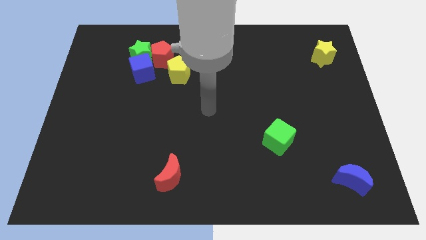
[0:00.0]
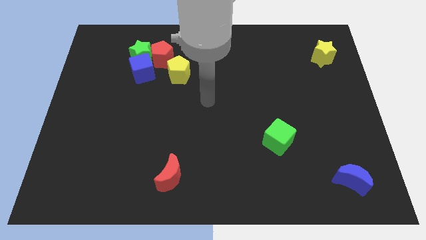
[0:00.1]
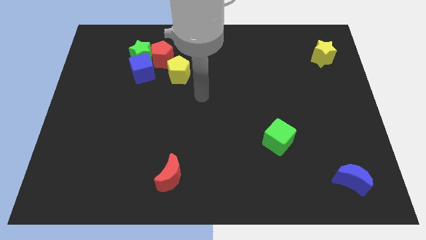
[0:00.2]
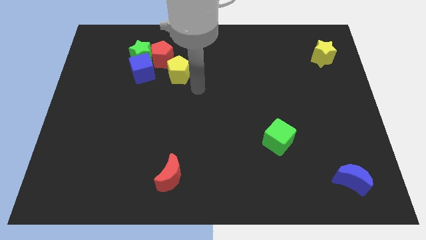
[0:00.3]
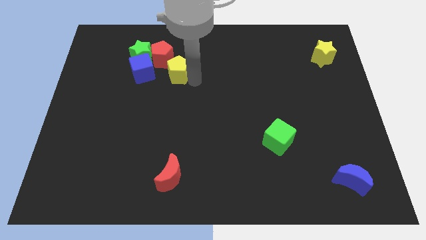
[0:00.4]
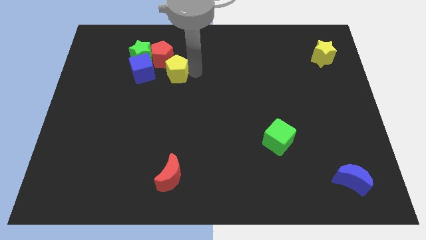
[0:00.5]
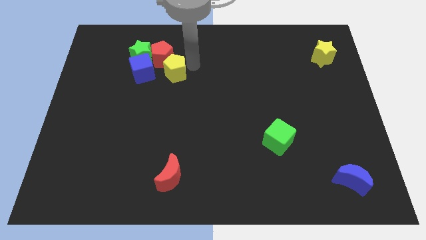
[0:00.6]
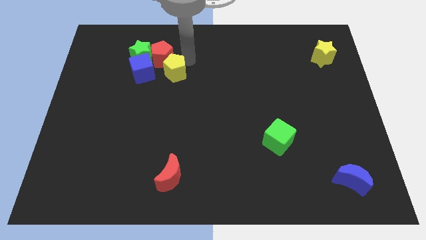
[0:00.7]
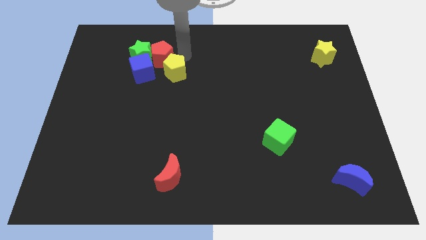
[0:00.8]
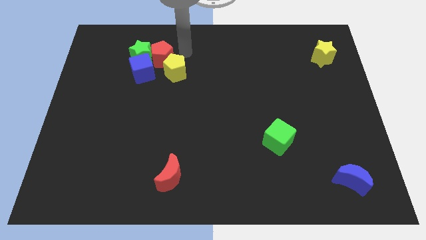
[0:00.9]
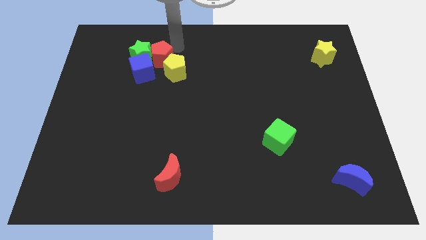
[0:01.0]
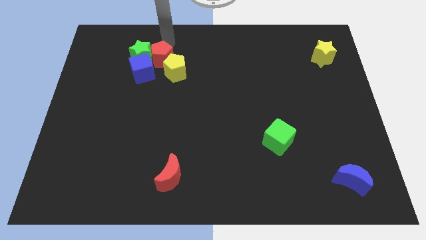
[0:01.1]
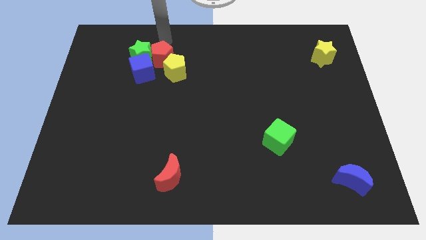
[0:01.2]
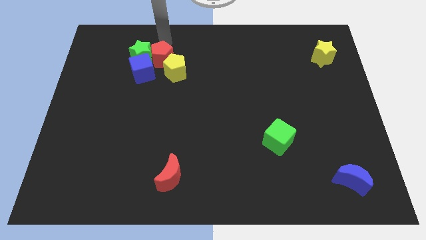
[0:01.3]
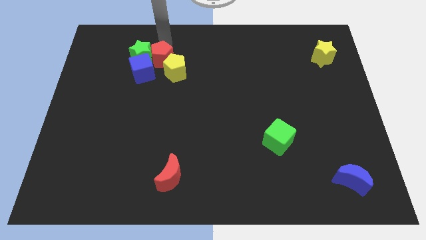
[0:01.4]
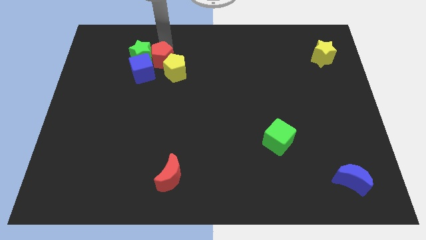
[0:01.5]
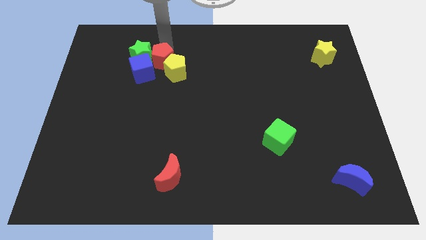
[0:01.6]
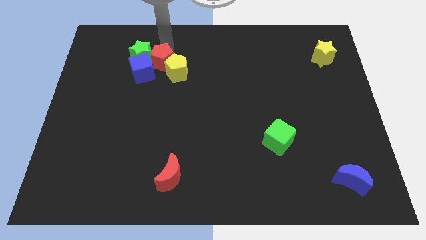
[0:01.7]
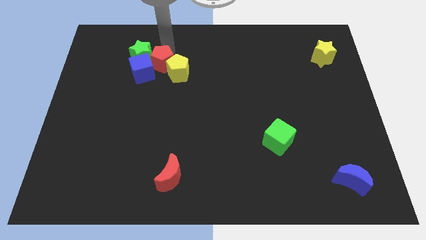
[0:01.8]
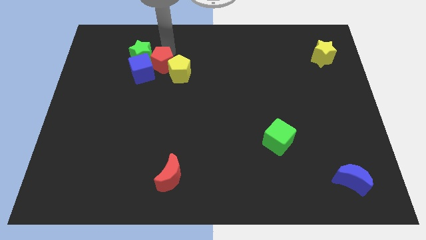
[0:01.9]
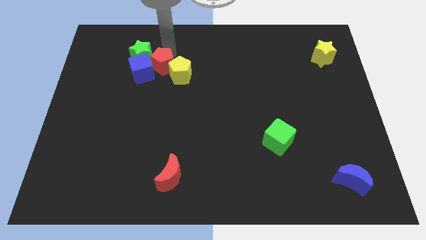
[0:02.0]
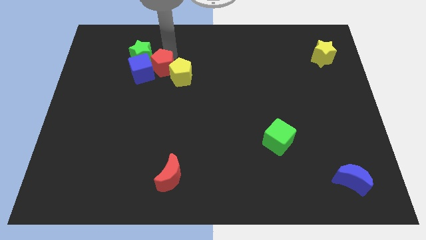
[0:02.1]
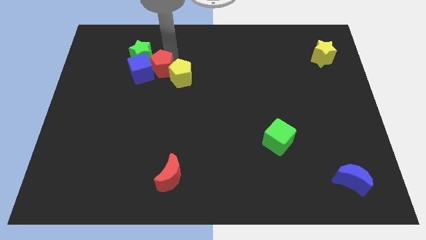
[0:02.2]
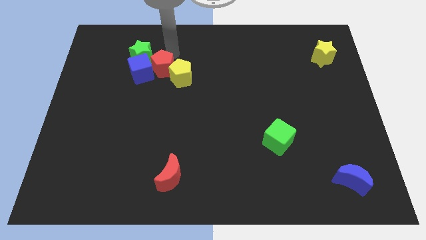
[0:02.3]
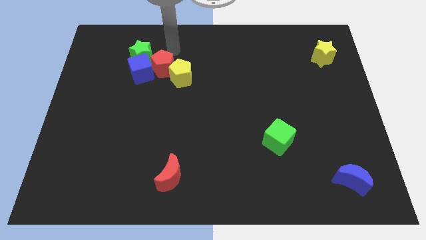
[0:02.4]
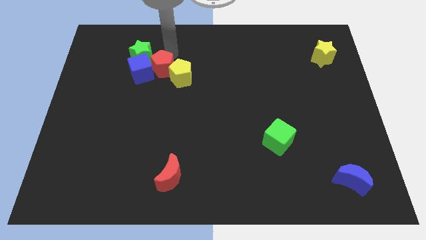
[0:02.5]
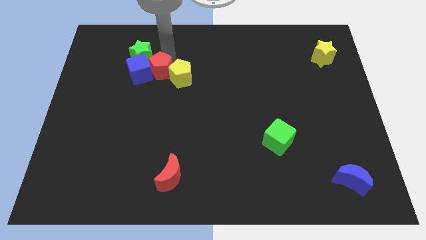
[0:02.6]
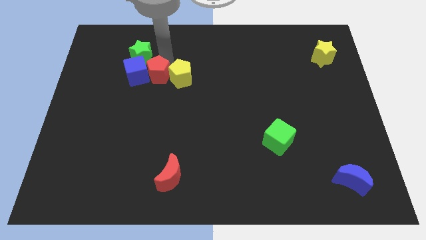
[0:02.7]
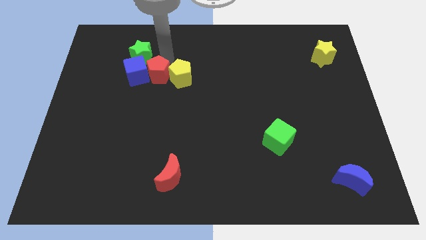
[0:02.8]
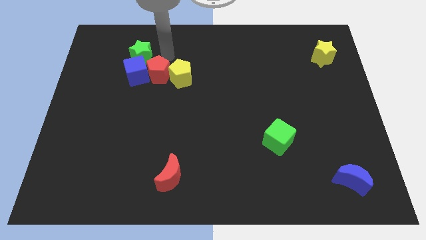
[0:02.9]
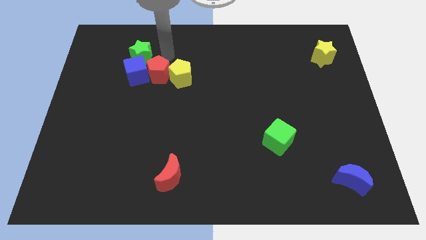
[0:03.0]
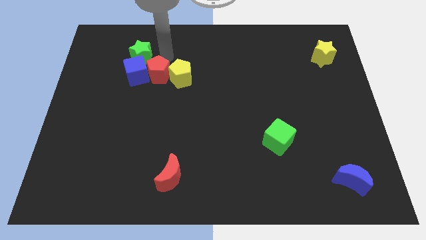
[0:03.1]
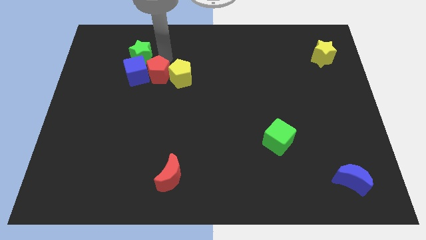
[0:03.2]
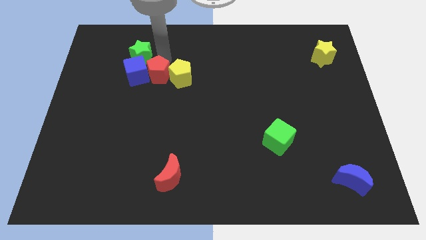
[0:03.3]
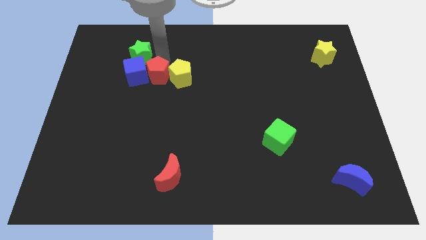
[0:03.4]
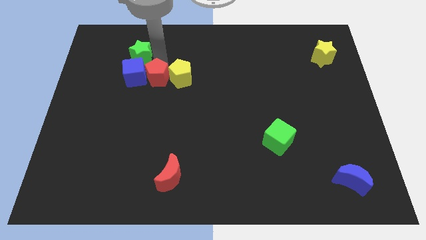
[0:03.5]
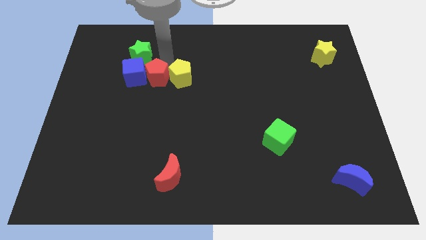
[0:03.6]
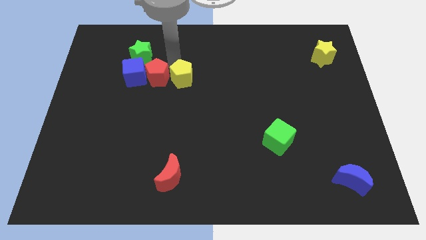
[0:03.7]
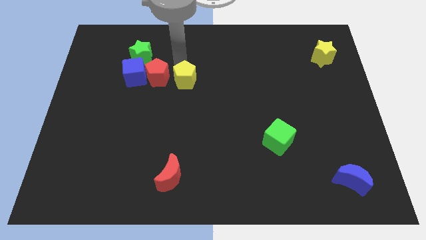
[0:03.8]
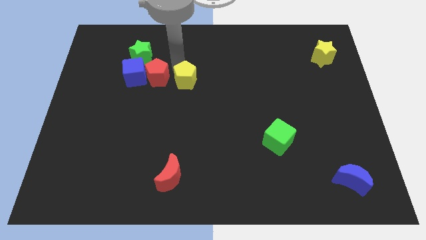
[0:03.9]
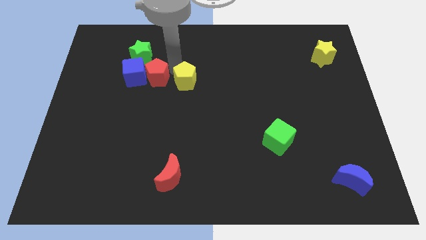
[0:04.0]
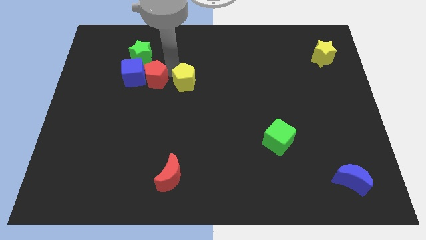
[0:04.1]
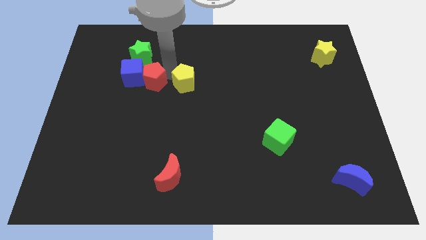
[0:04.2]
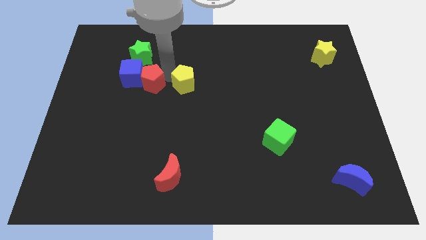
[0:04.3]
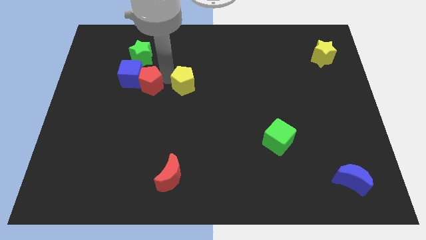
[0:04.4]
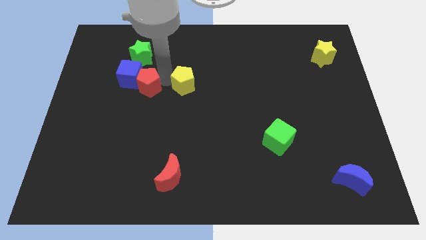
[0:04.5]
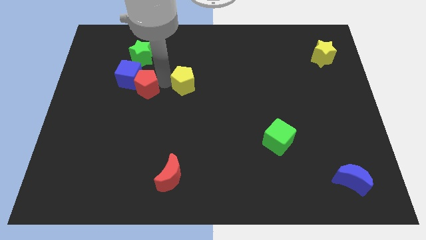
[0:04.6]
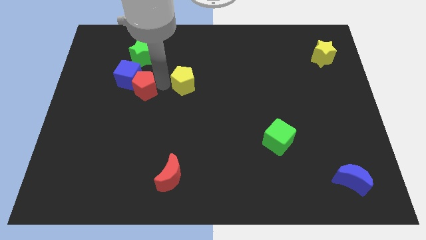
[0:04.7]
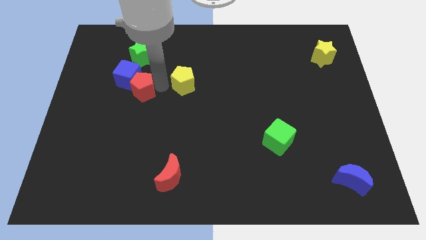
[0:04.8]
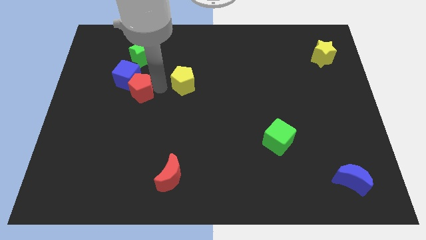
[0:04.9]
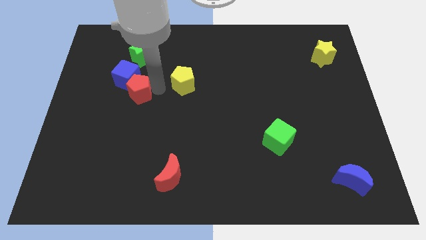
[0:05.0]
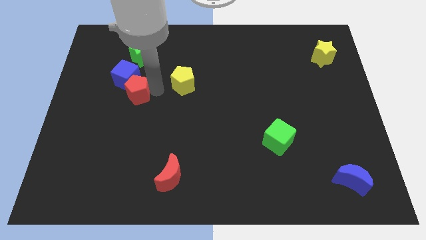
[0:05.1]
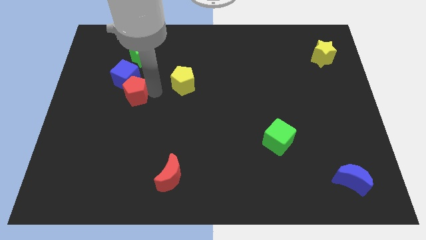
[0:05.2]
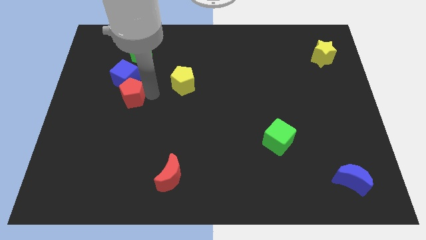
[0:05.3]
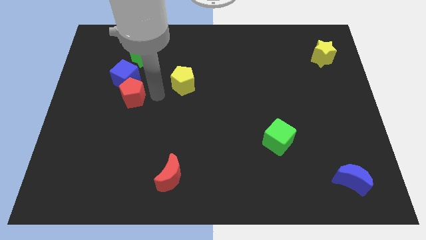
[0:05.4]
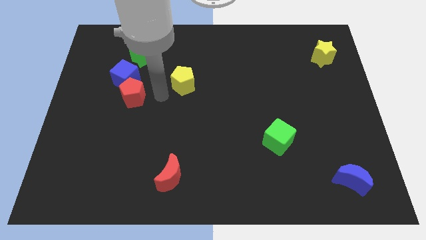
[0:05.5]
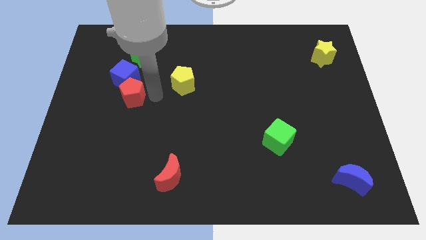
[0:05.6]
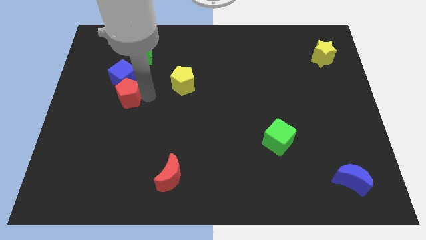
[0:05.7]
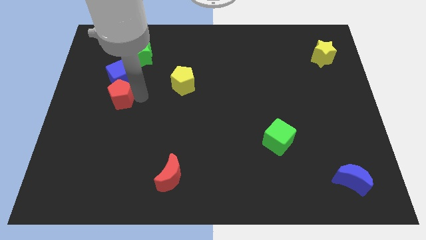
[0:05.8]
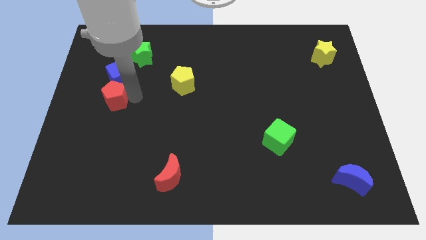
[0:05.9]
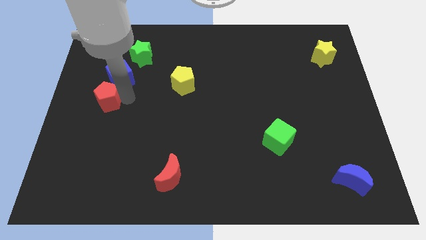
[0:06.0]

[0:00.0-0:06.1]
slide the red pentagon to the left side of the board

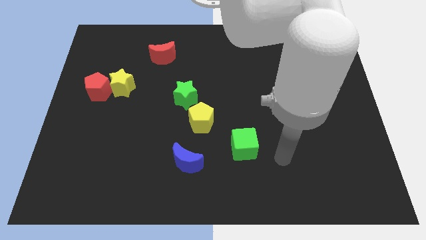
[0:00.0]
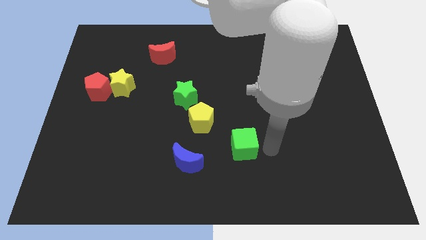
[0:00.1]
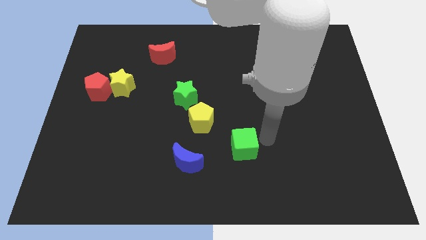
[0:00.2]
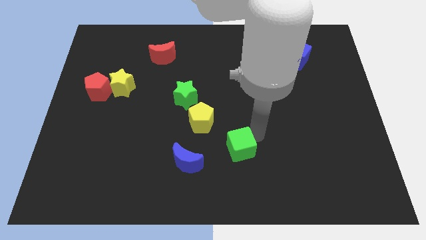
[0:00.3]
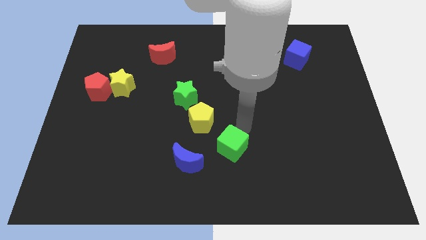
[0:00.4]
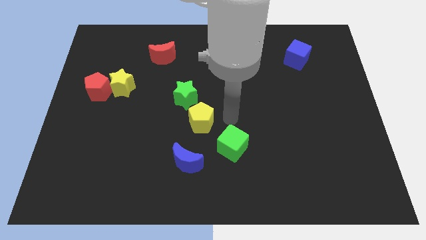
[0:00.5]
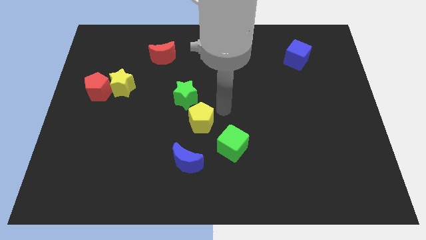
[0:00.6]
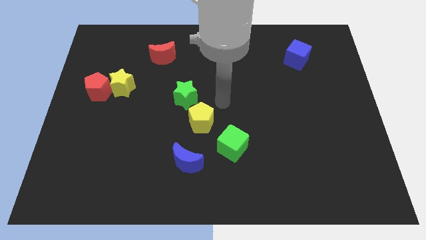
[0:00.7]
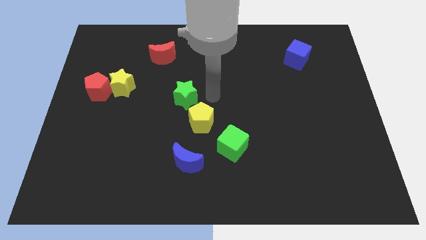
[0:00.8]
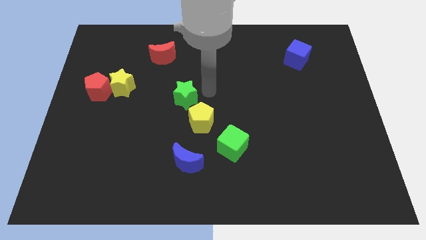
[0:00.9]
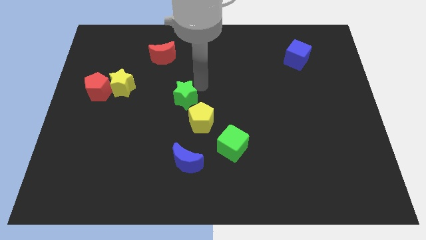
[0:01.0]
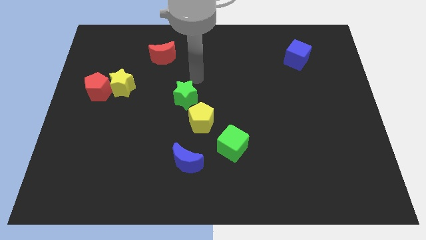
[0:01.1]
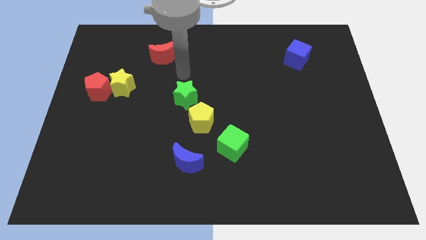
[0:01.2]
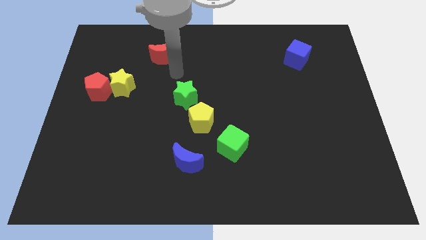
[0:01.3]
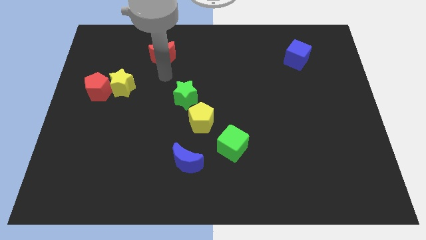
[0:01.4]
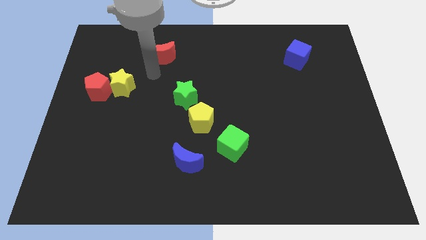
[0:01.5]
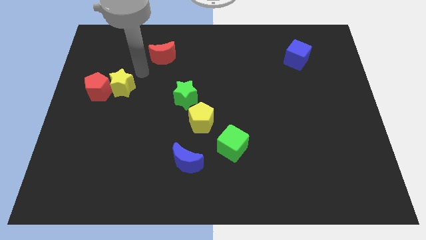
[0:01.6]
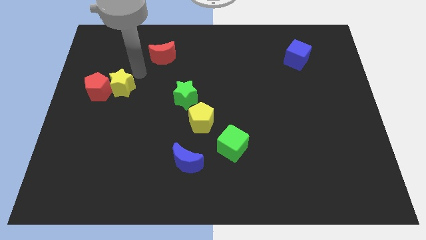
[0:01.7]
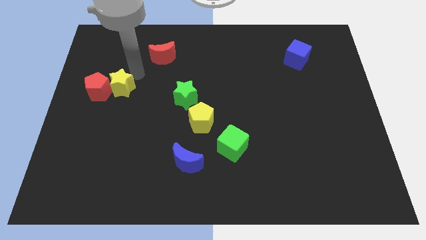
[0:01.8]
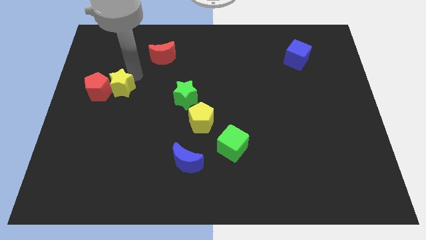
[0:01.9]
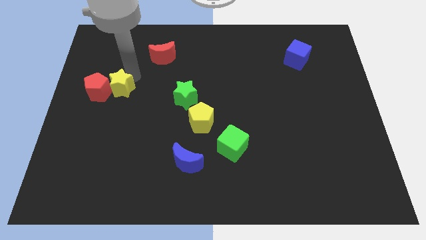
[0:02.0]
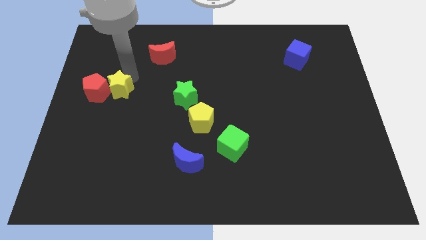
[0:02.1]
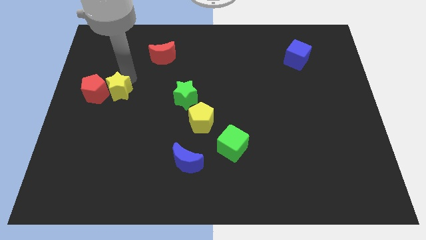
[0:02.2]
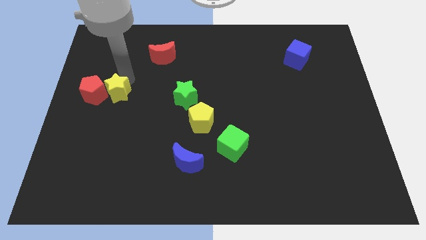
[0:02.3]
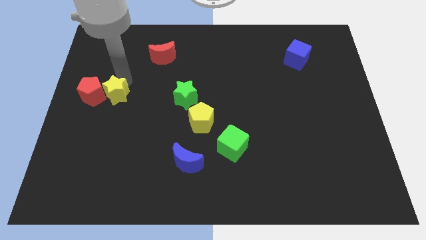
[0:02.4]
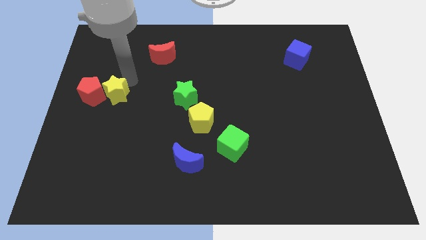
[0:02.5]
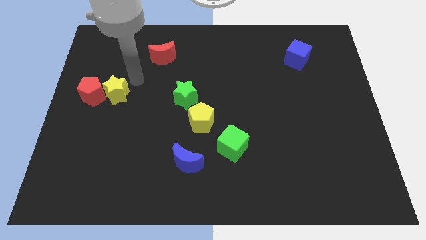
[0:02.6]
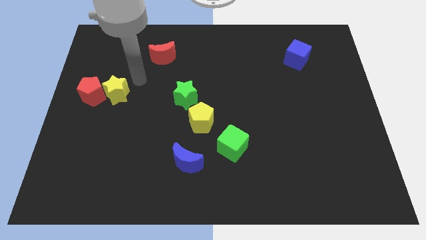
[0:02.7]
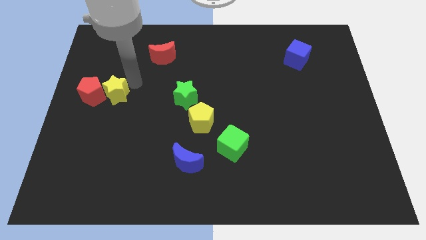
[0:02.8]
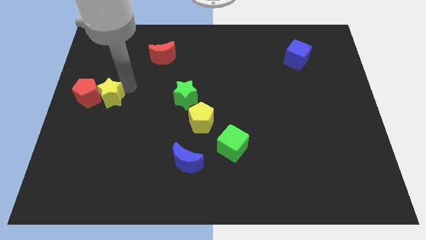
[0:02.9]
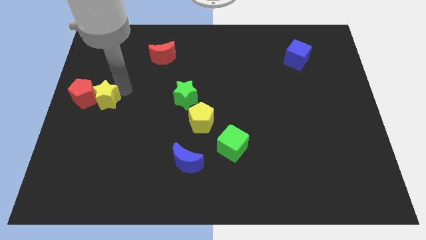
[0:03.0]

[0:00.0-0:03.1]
push the yellow star to the left side
